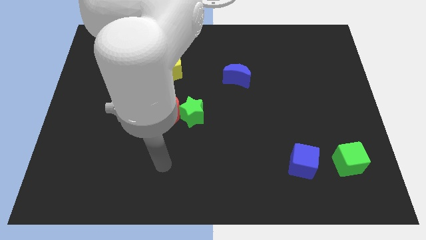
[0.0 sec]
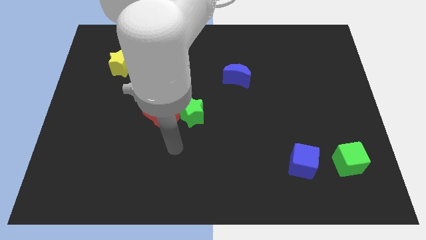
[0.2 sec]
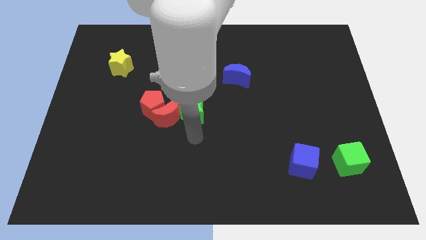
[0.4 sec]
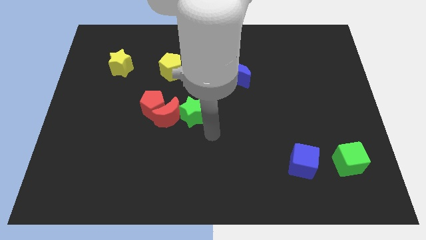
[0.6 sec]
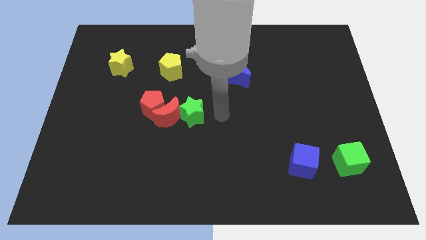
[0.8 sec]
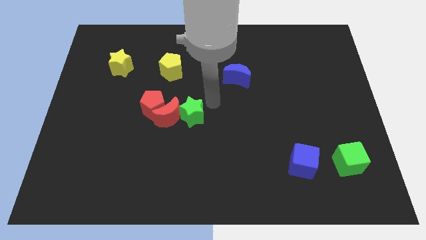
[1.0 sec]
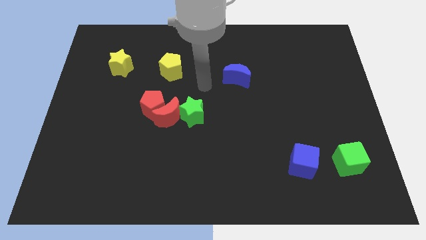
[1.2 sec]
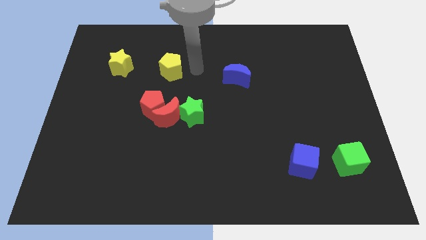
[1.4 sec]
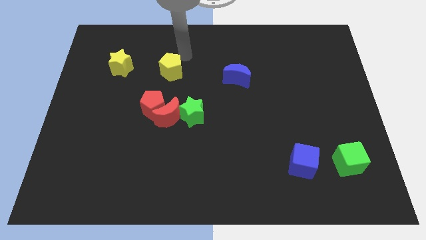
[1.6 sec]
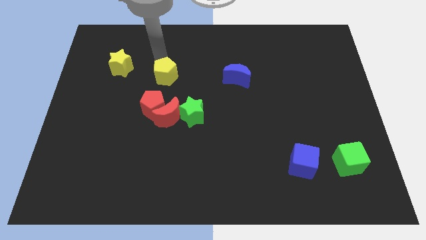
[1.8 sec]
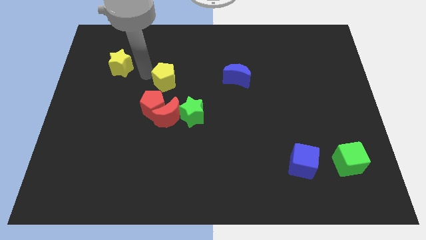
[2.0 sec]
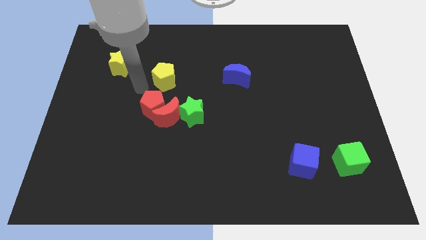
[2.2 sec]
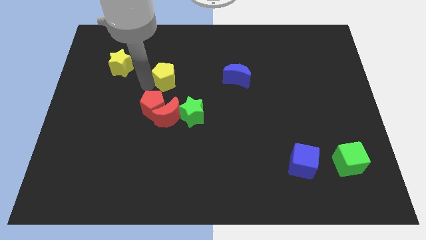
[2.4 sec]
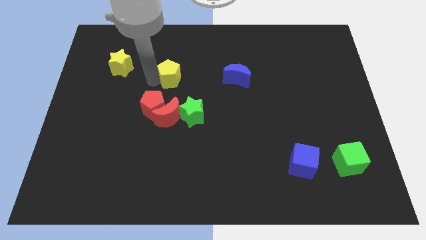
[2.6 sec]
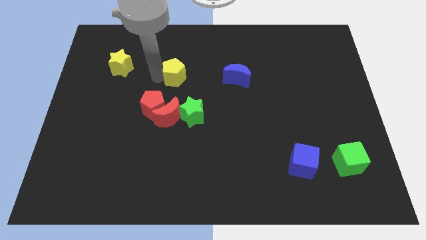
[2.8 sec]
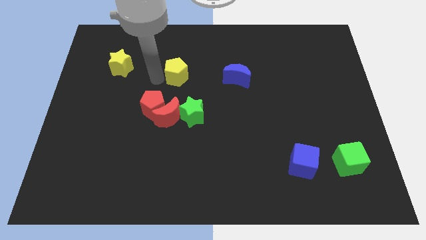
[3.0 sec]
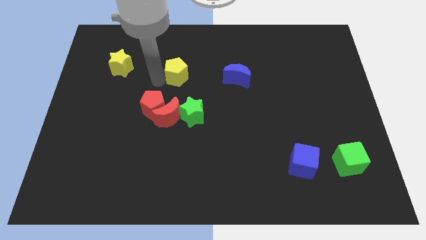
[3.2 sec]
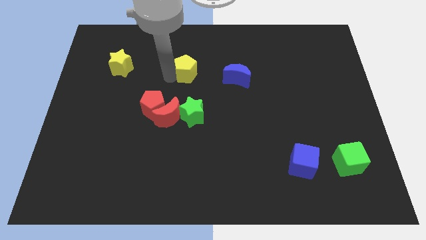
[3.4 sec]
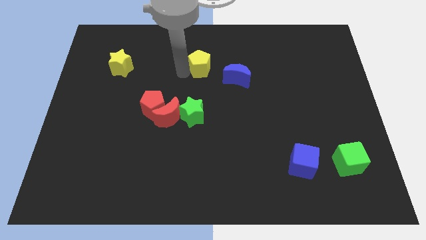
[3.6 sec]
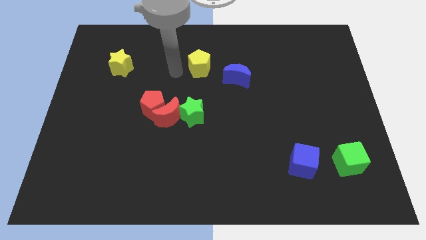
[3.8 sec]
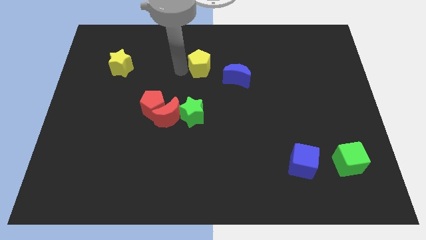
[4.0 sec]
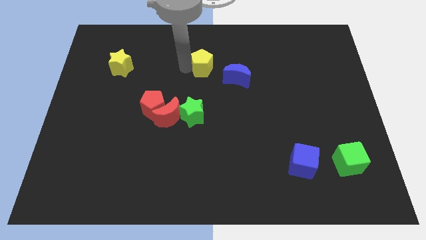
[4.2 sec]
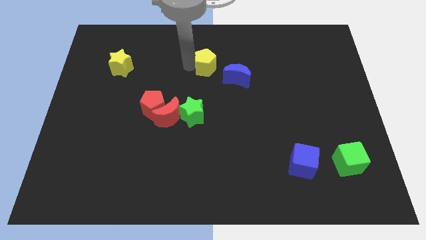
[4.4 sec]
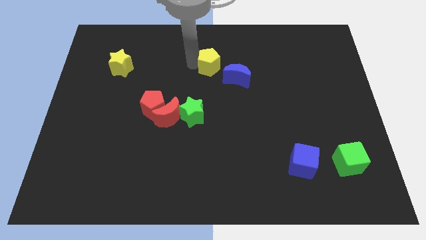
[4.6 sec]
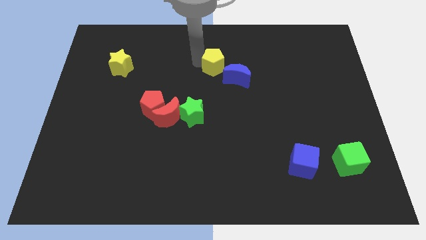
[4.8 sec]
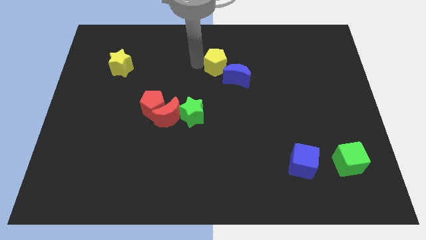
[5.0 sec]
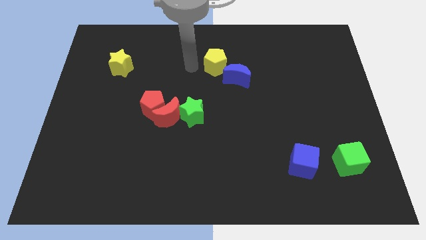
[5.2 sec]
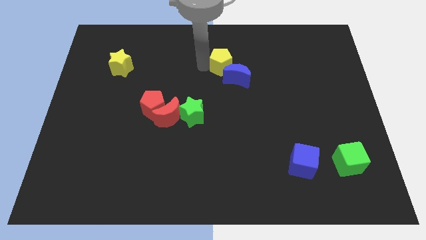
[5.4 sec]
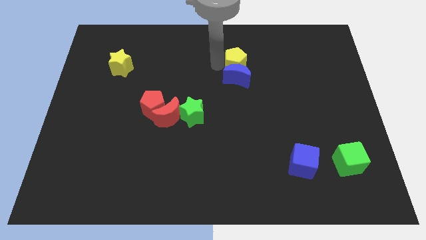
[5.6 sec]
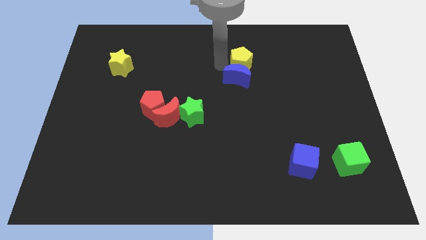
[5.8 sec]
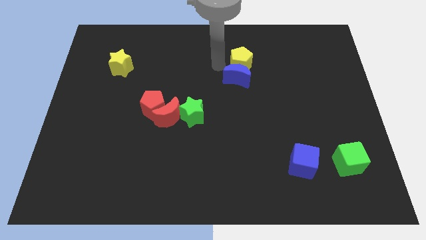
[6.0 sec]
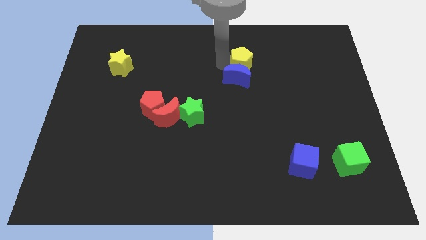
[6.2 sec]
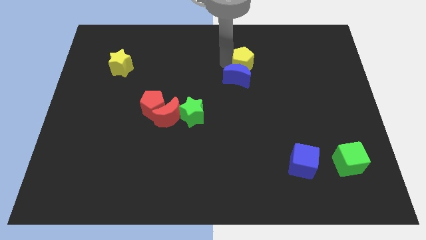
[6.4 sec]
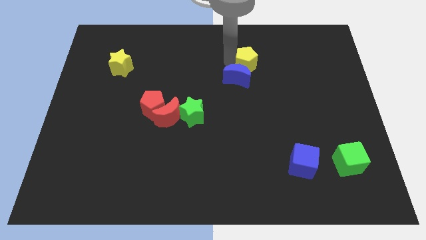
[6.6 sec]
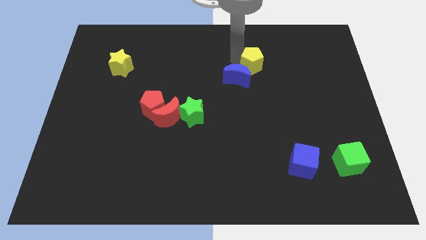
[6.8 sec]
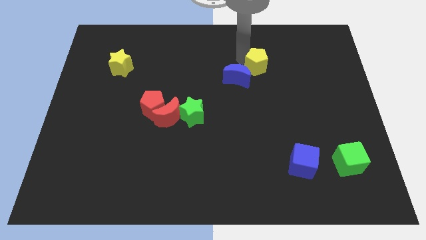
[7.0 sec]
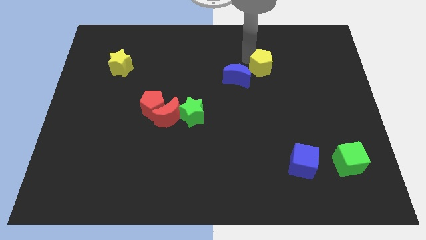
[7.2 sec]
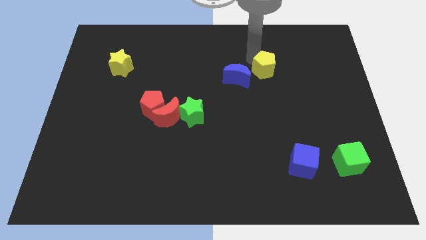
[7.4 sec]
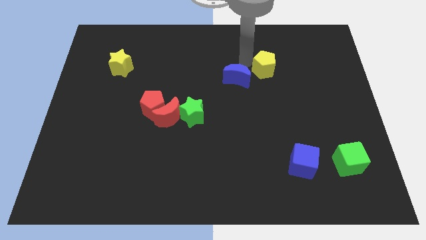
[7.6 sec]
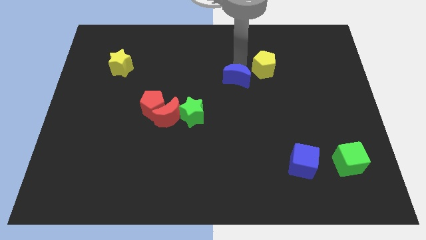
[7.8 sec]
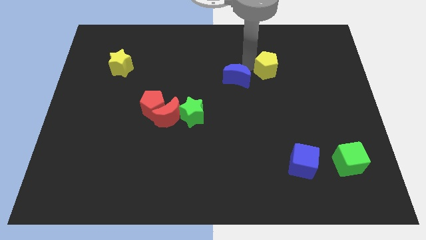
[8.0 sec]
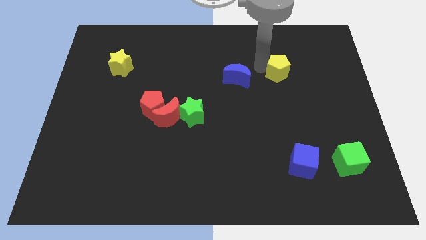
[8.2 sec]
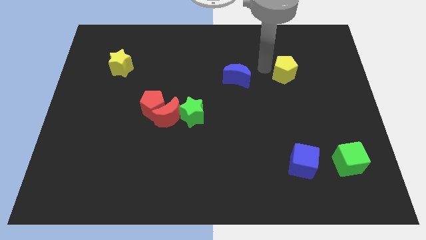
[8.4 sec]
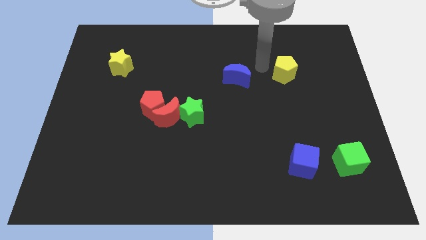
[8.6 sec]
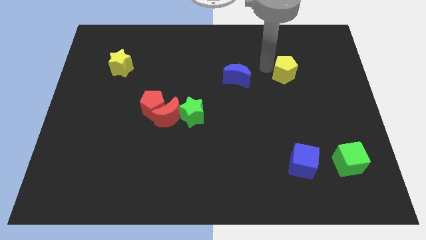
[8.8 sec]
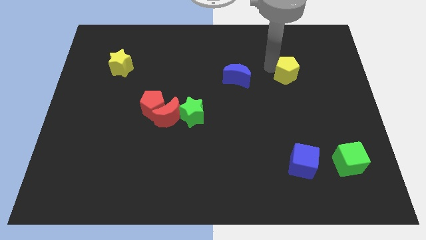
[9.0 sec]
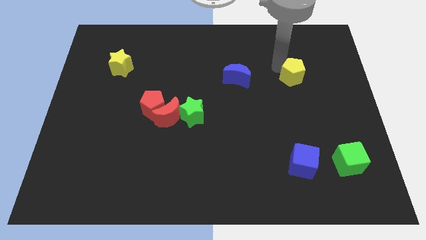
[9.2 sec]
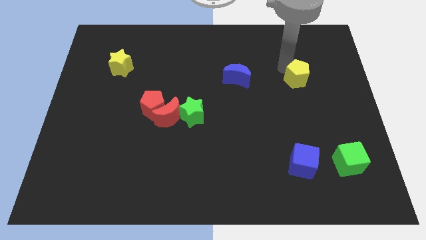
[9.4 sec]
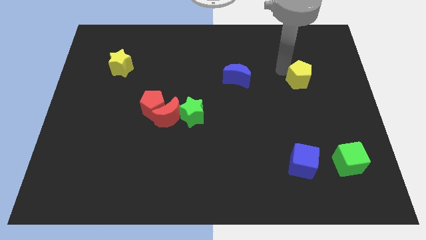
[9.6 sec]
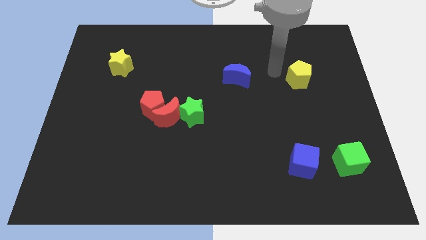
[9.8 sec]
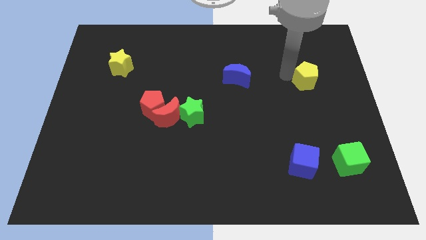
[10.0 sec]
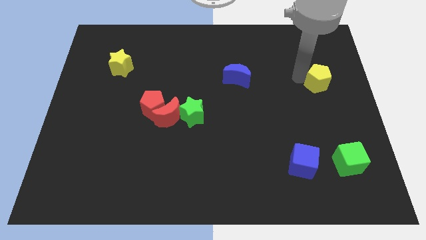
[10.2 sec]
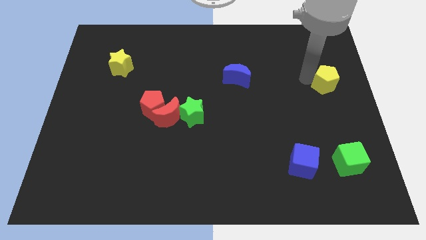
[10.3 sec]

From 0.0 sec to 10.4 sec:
move the yellow pentagon to the center right

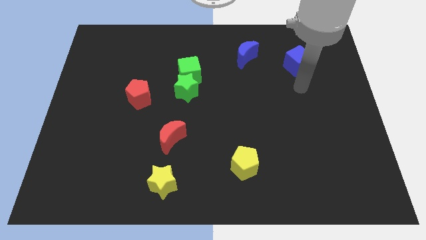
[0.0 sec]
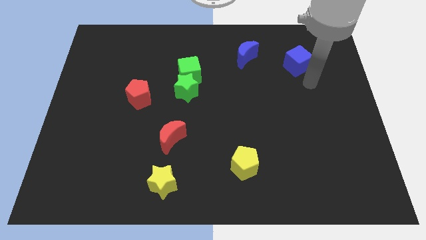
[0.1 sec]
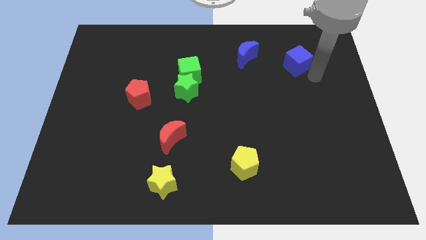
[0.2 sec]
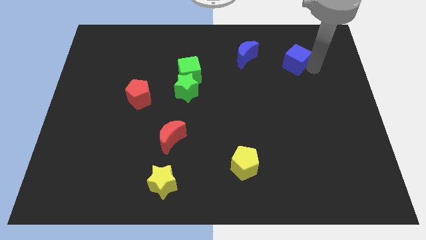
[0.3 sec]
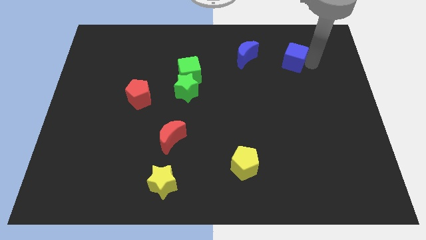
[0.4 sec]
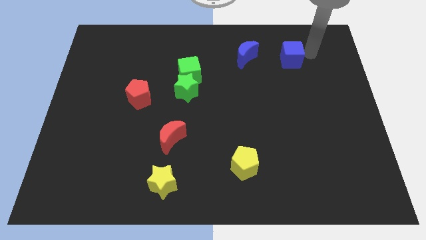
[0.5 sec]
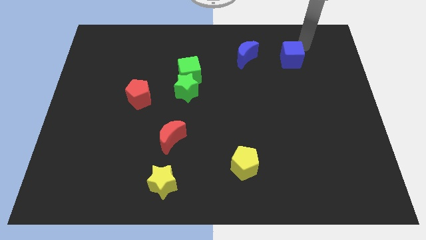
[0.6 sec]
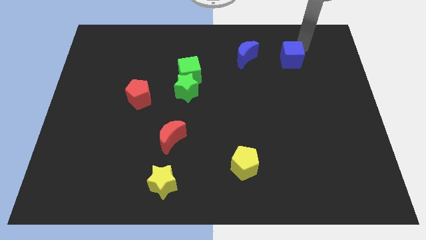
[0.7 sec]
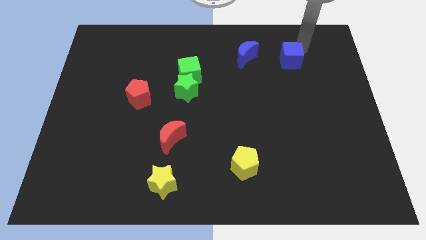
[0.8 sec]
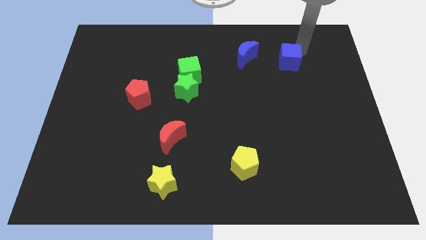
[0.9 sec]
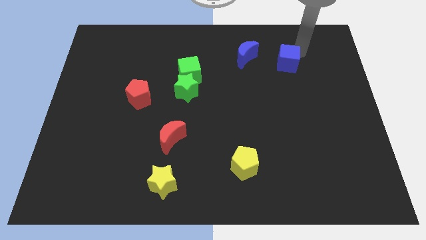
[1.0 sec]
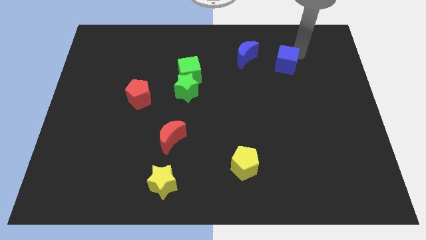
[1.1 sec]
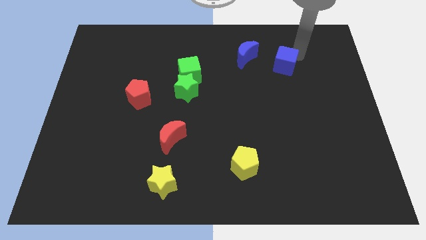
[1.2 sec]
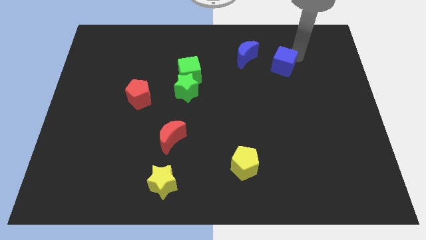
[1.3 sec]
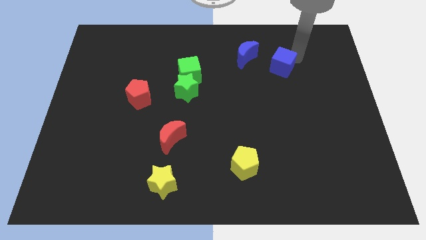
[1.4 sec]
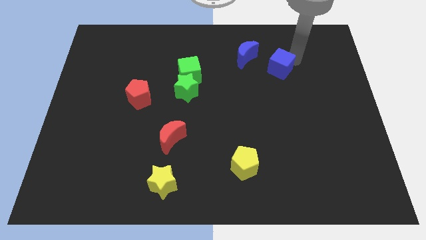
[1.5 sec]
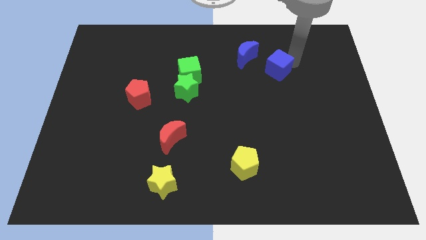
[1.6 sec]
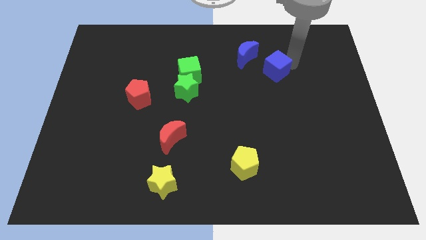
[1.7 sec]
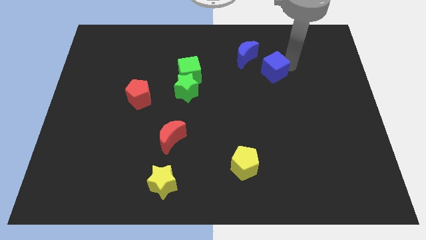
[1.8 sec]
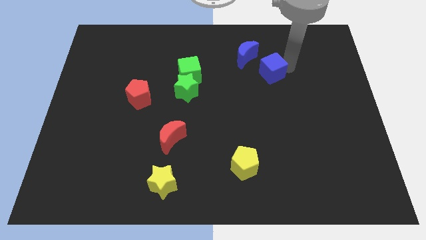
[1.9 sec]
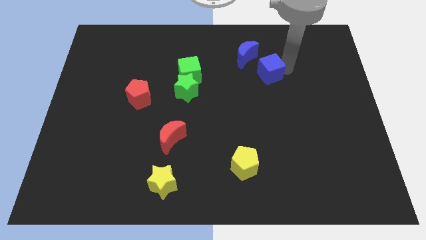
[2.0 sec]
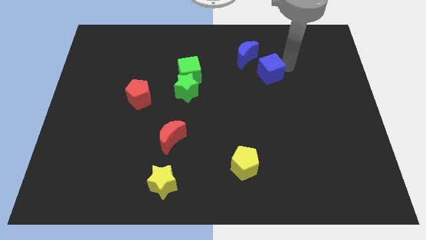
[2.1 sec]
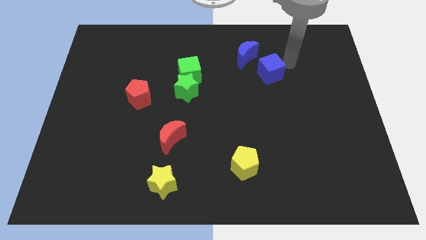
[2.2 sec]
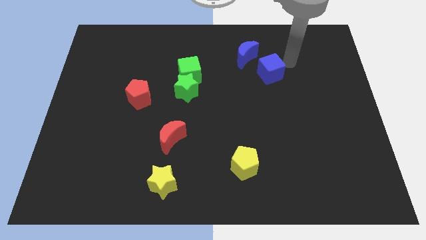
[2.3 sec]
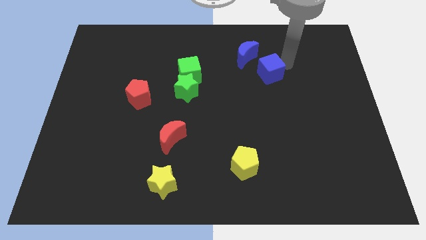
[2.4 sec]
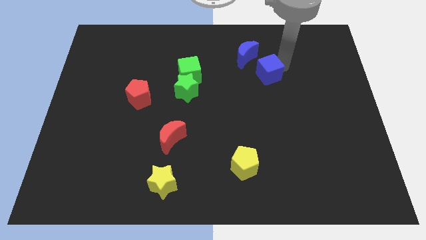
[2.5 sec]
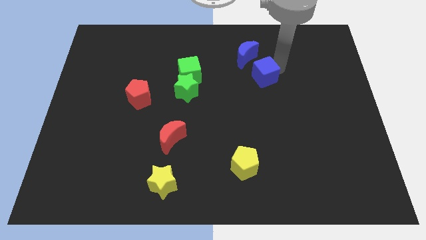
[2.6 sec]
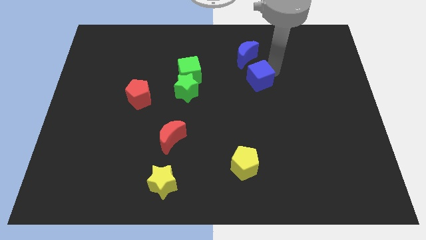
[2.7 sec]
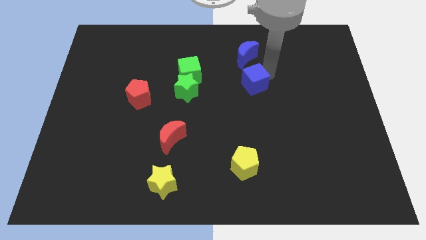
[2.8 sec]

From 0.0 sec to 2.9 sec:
move the blue cube to the middle of the board
